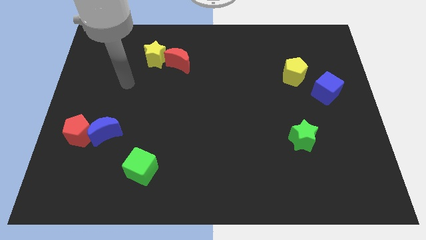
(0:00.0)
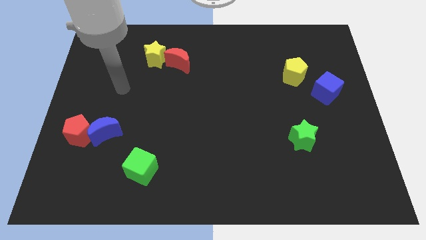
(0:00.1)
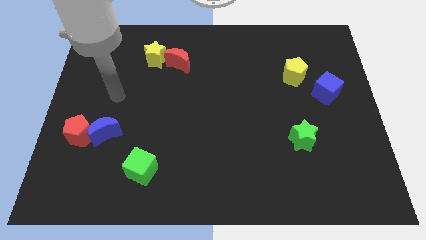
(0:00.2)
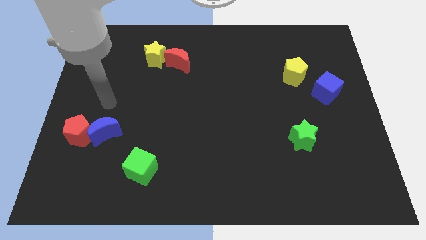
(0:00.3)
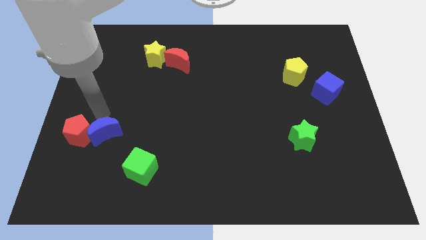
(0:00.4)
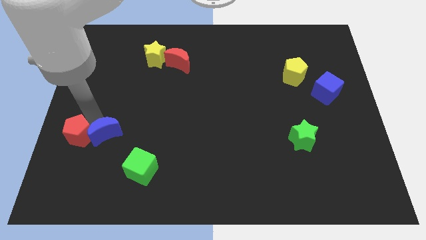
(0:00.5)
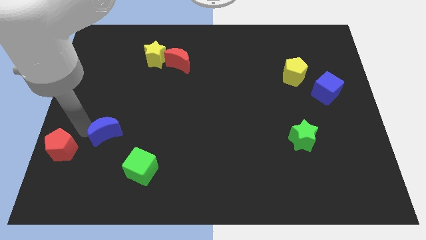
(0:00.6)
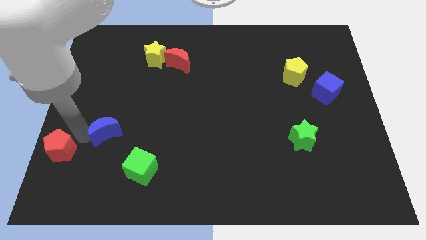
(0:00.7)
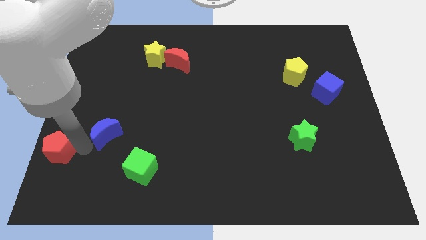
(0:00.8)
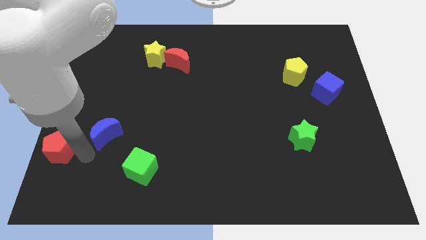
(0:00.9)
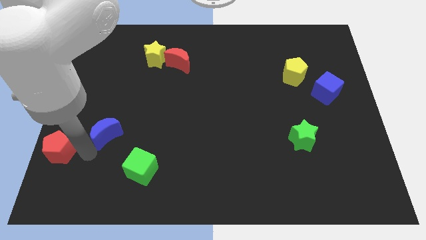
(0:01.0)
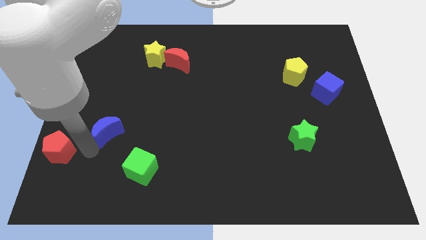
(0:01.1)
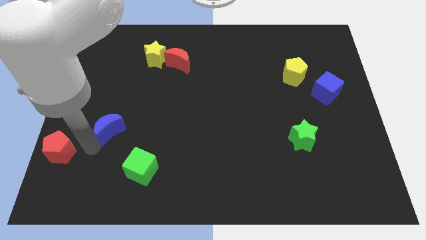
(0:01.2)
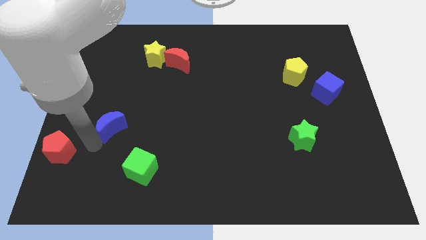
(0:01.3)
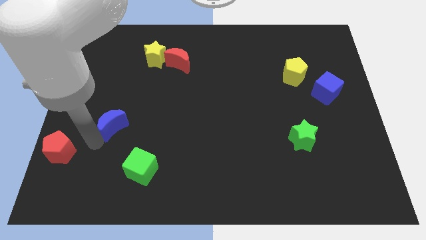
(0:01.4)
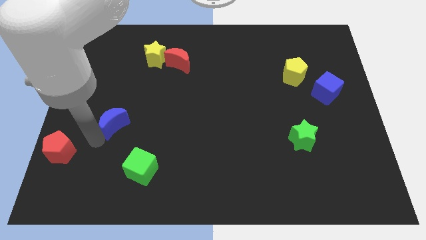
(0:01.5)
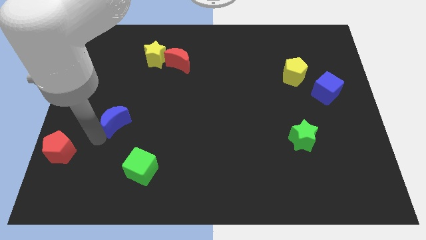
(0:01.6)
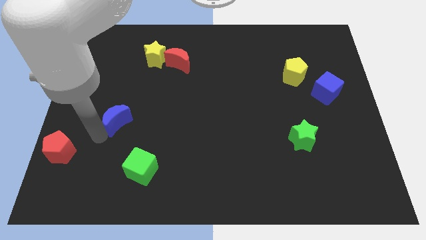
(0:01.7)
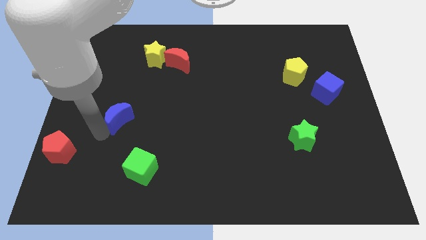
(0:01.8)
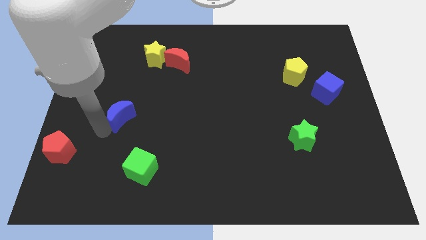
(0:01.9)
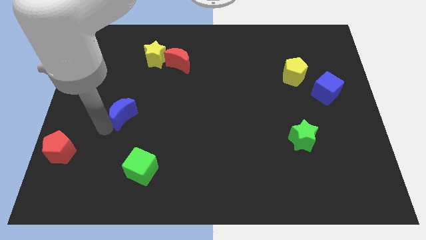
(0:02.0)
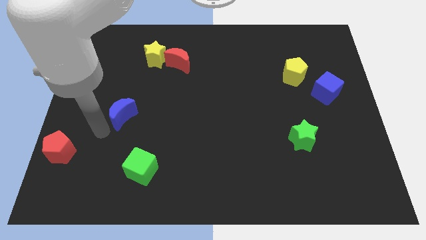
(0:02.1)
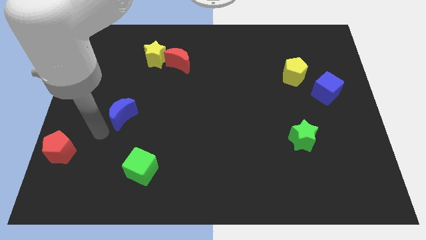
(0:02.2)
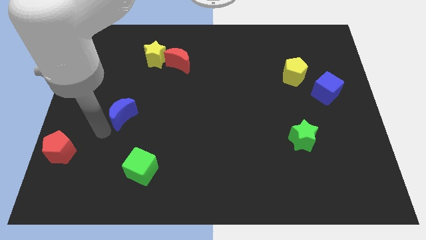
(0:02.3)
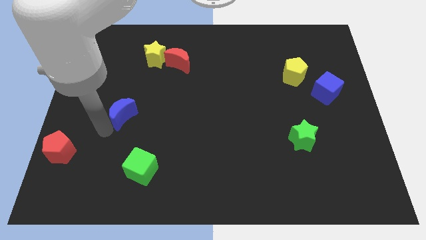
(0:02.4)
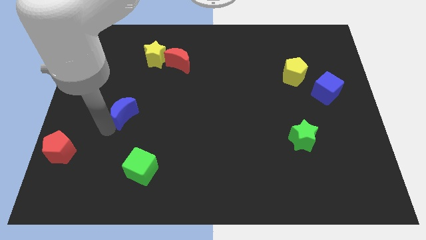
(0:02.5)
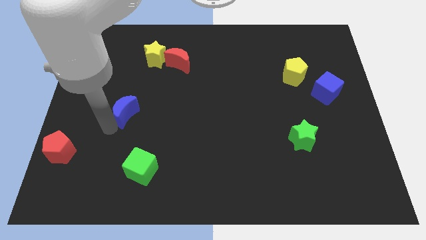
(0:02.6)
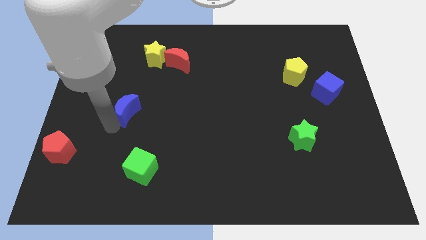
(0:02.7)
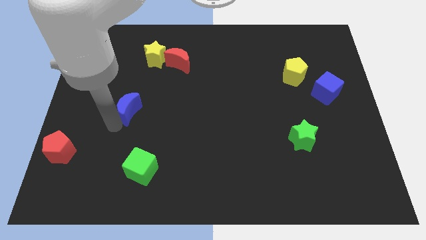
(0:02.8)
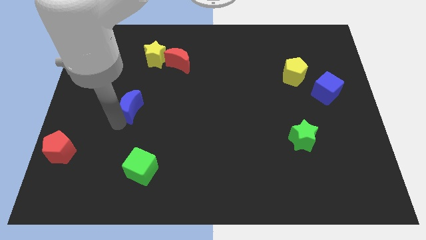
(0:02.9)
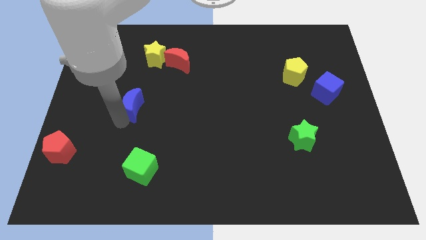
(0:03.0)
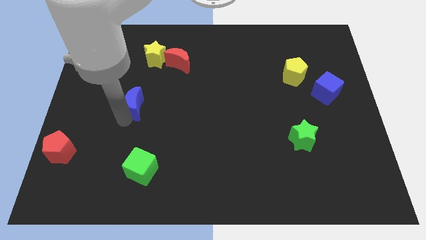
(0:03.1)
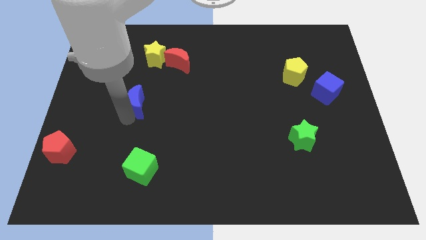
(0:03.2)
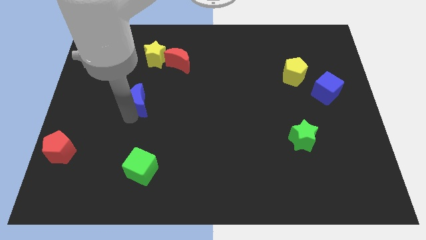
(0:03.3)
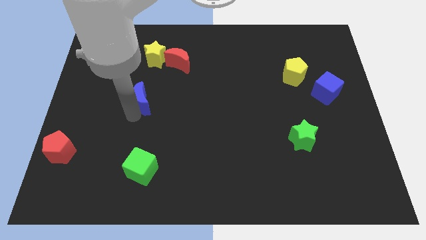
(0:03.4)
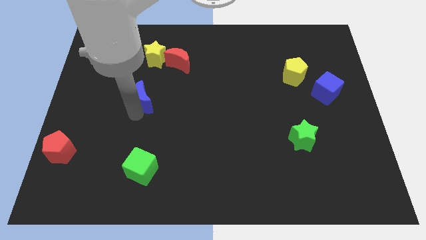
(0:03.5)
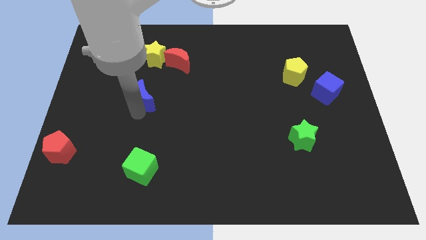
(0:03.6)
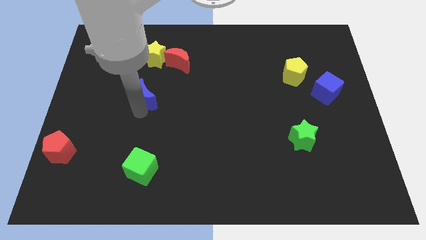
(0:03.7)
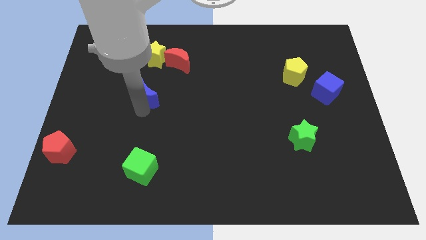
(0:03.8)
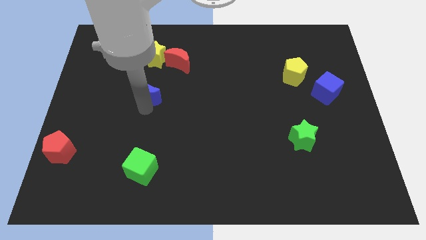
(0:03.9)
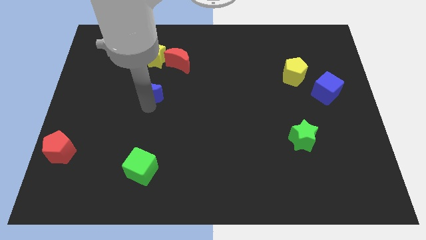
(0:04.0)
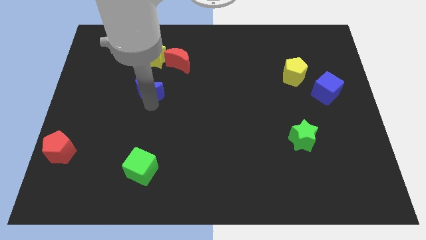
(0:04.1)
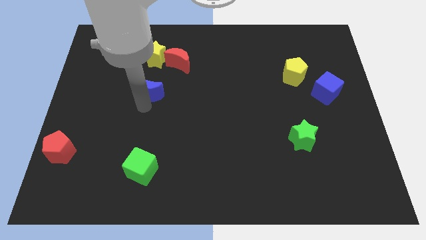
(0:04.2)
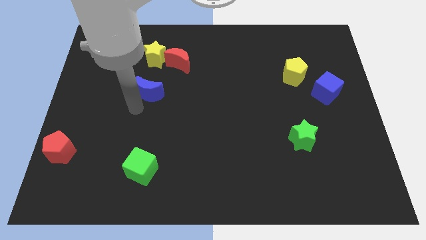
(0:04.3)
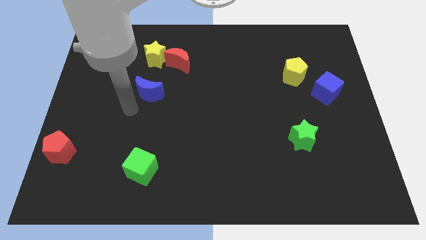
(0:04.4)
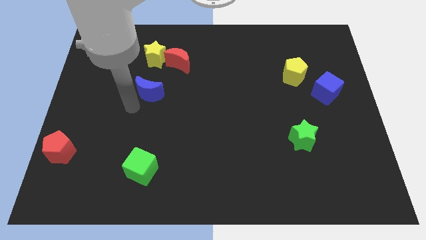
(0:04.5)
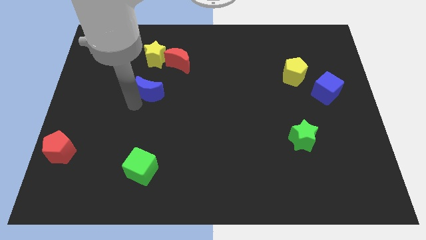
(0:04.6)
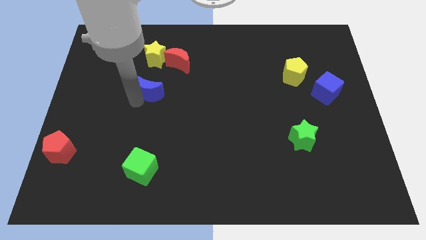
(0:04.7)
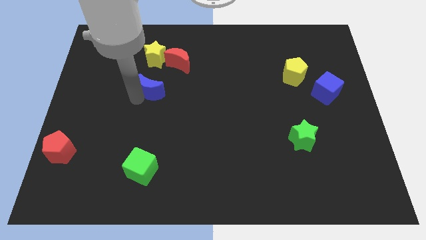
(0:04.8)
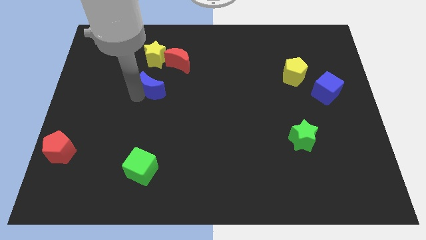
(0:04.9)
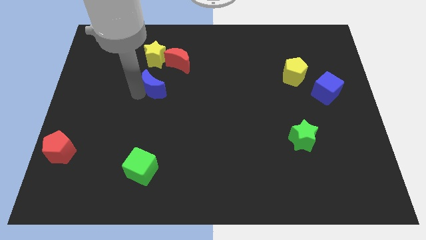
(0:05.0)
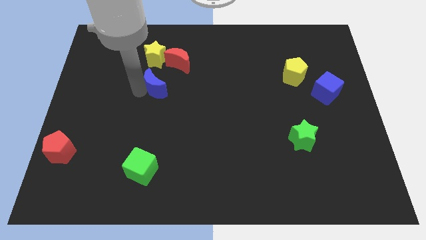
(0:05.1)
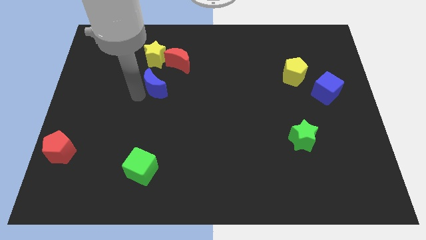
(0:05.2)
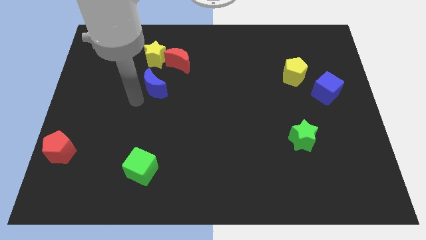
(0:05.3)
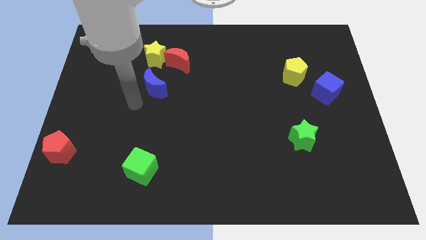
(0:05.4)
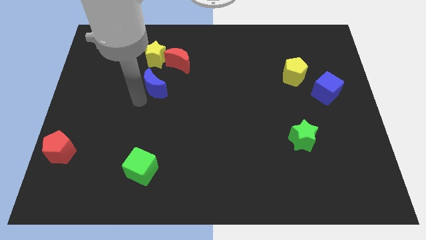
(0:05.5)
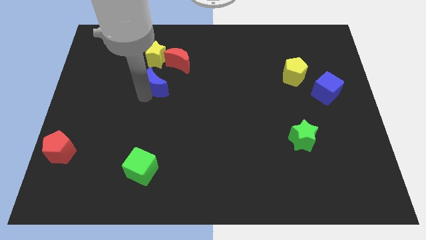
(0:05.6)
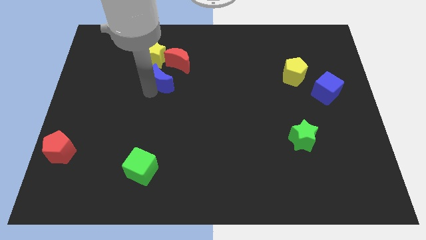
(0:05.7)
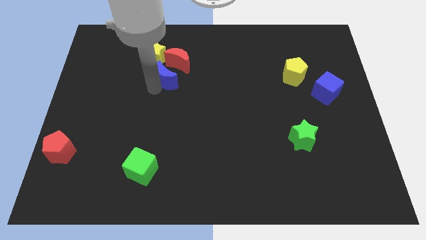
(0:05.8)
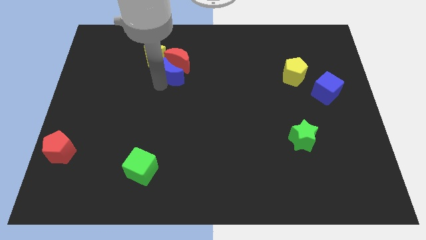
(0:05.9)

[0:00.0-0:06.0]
slide the blue moon next to the red moon
